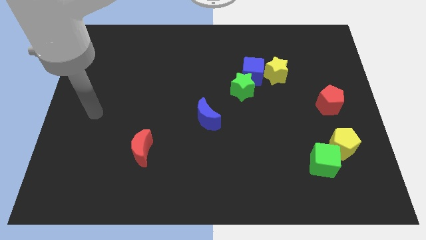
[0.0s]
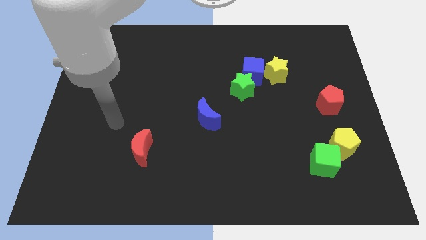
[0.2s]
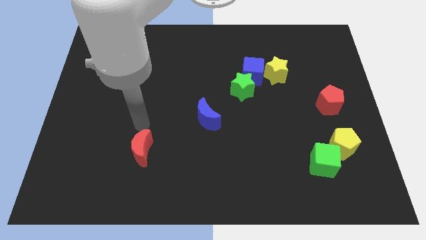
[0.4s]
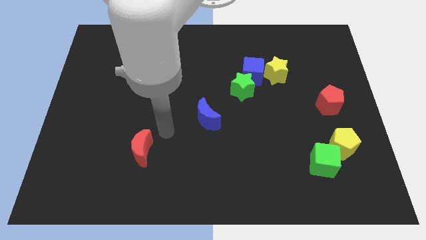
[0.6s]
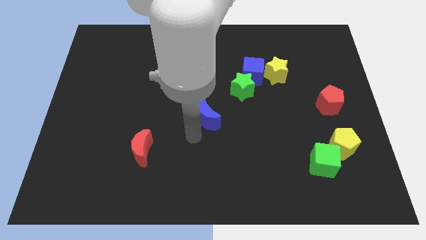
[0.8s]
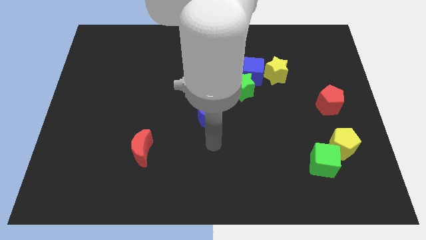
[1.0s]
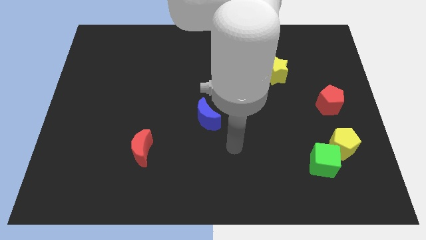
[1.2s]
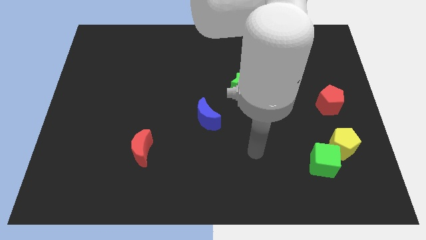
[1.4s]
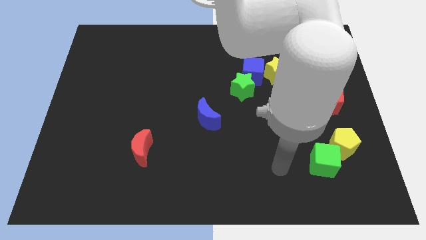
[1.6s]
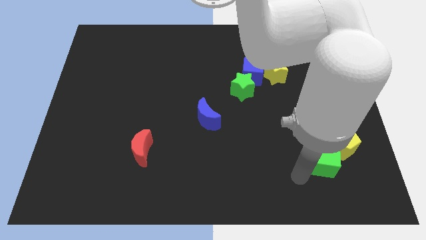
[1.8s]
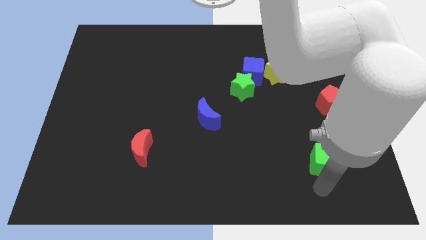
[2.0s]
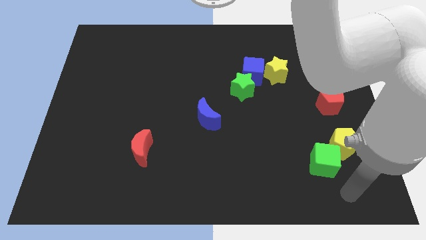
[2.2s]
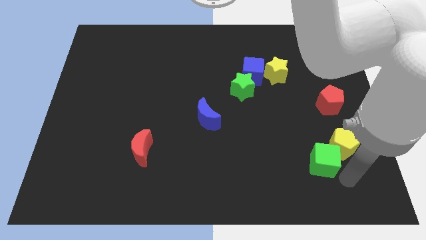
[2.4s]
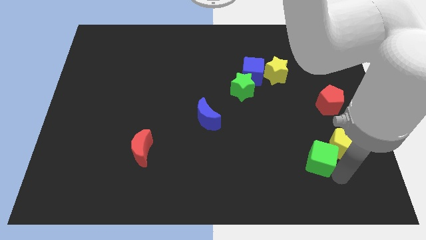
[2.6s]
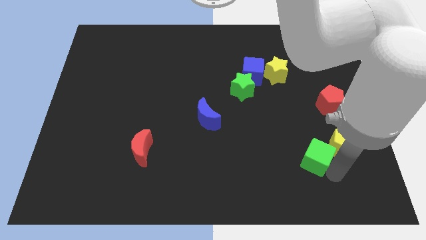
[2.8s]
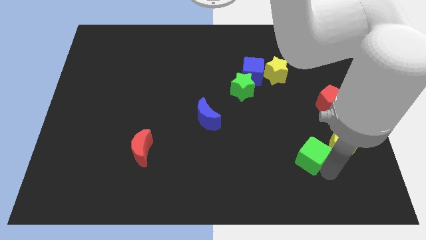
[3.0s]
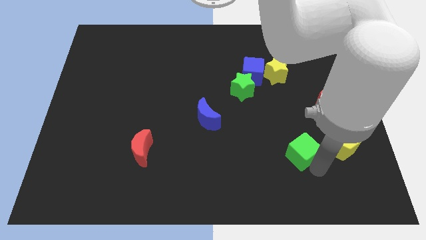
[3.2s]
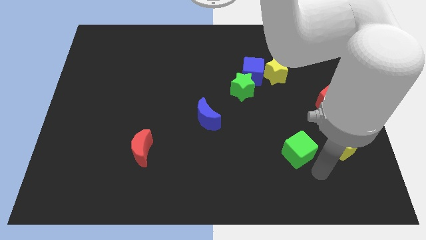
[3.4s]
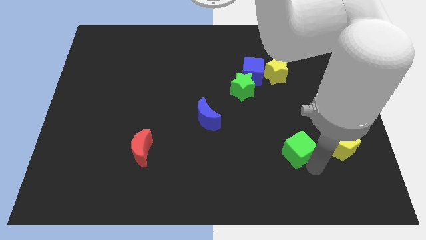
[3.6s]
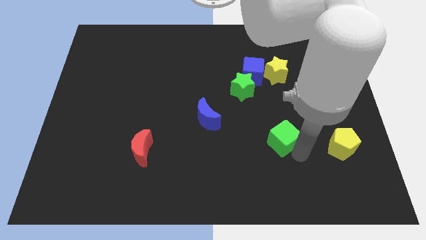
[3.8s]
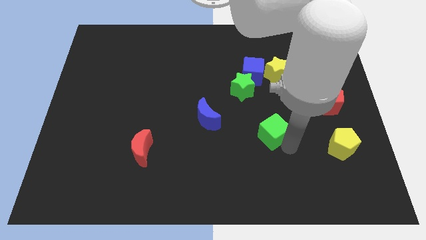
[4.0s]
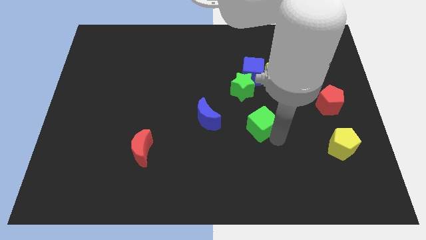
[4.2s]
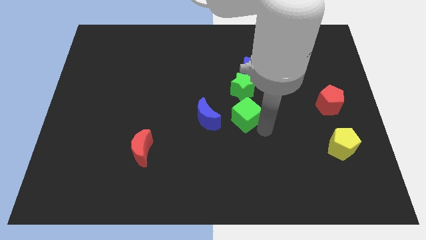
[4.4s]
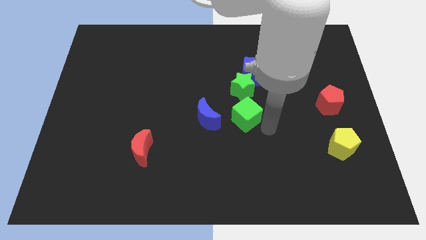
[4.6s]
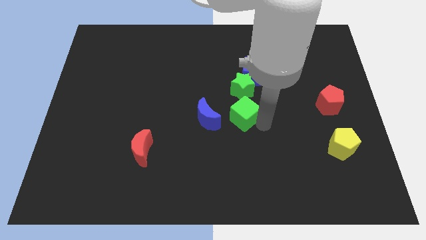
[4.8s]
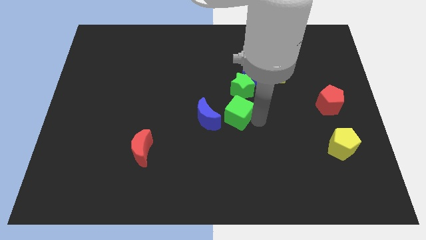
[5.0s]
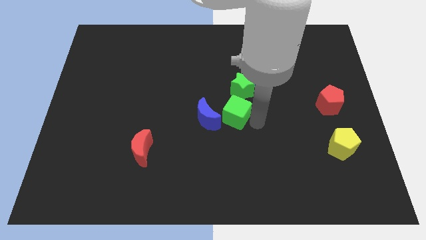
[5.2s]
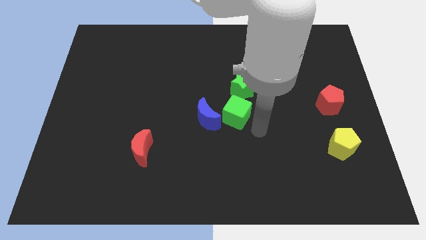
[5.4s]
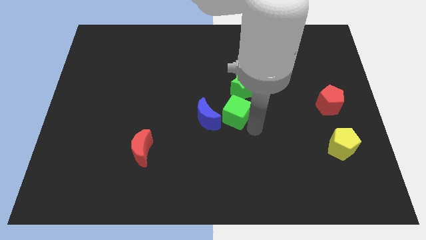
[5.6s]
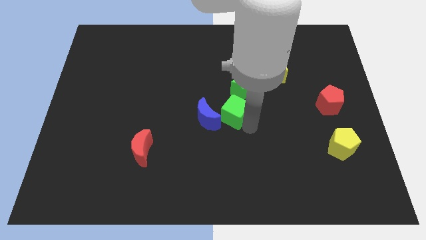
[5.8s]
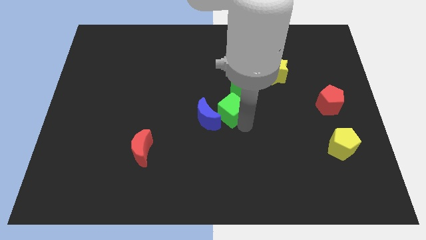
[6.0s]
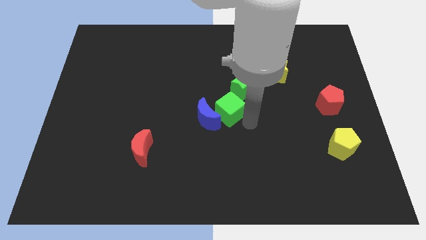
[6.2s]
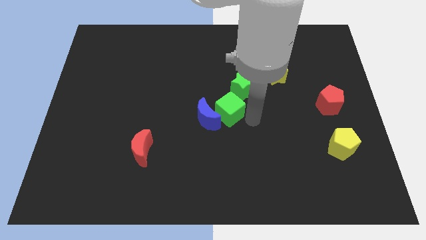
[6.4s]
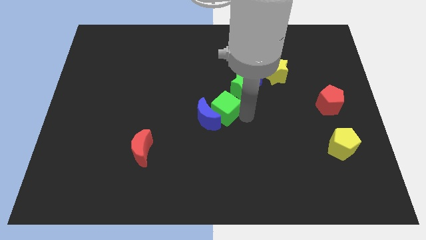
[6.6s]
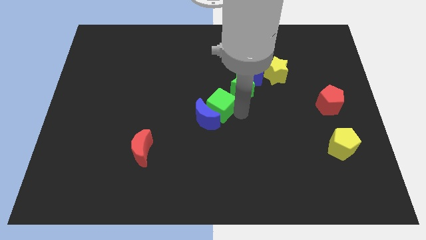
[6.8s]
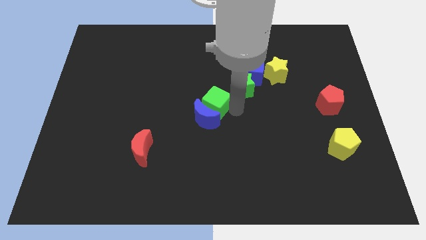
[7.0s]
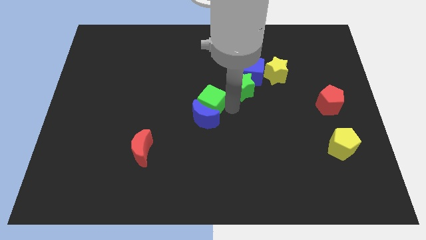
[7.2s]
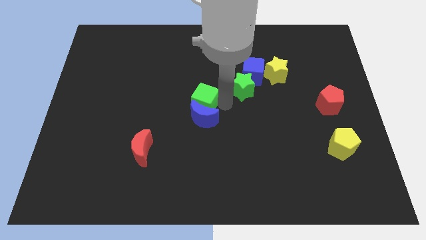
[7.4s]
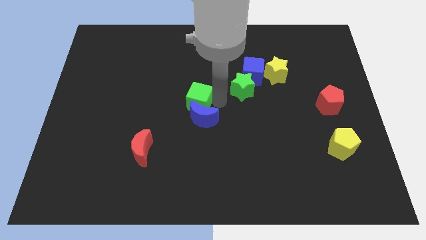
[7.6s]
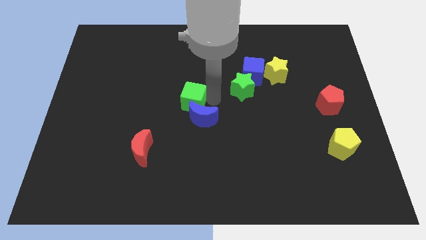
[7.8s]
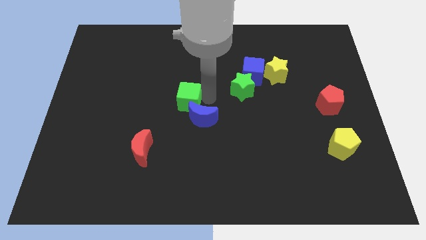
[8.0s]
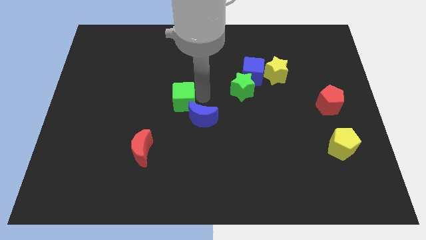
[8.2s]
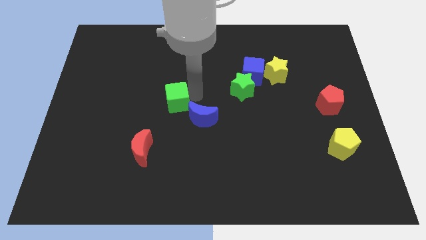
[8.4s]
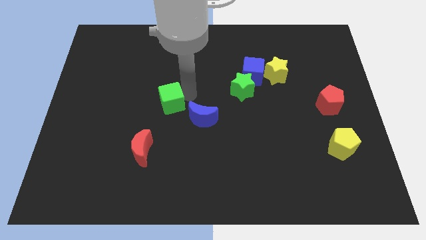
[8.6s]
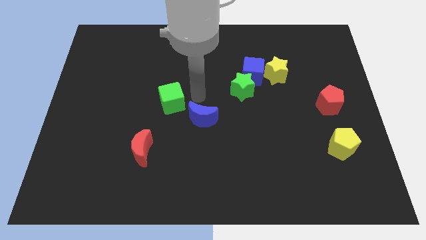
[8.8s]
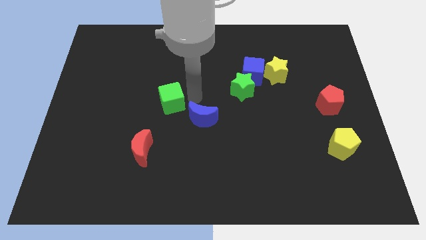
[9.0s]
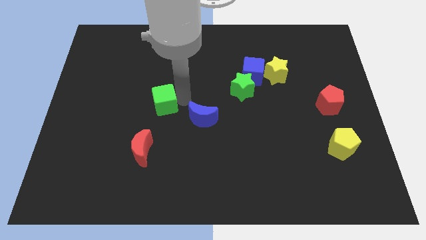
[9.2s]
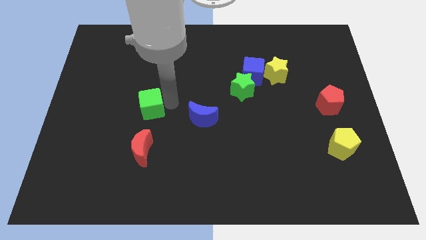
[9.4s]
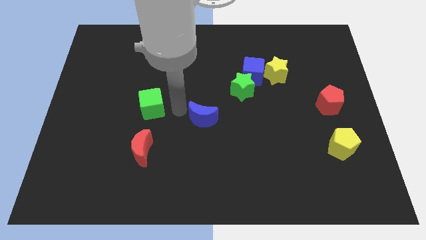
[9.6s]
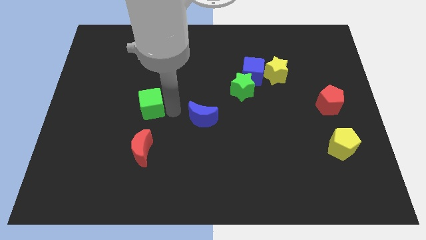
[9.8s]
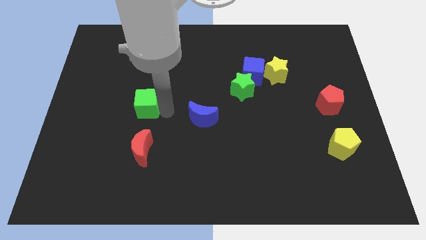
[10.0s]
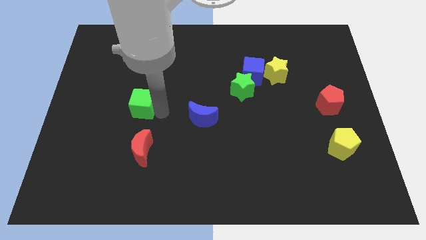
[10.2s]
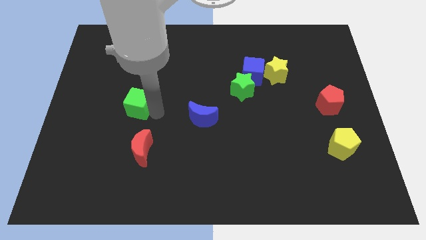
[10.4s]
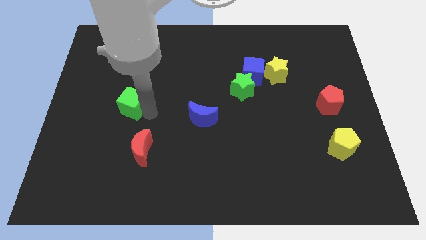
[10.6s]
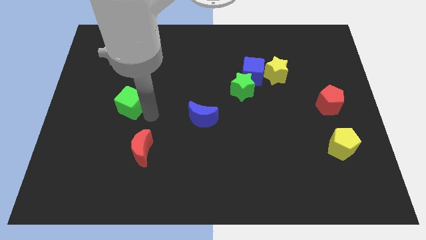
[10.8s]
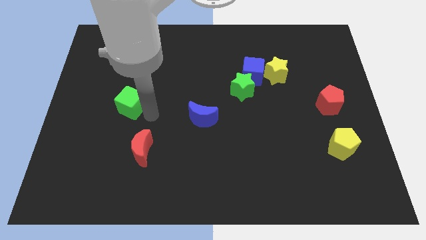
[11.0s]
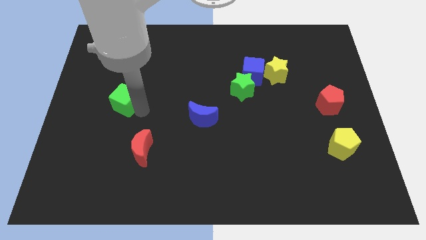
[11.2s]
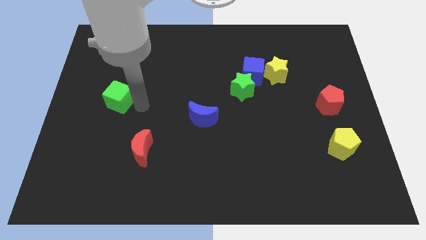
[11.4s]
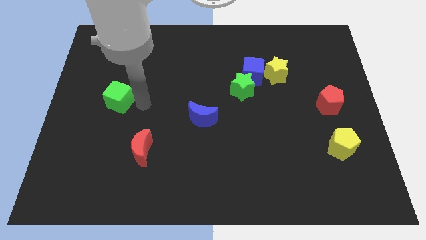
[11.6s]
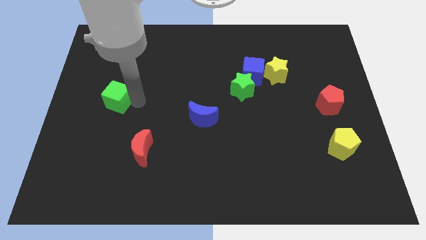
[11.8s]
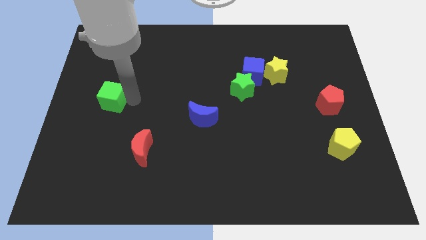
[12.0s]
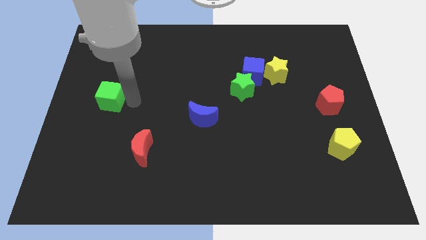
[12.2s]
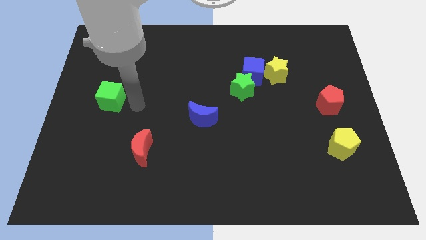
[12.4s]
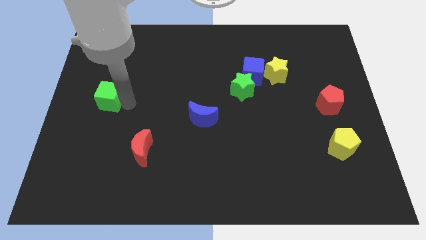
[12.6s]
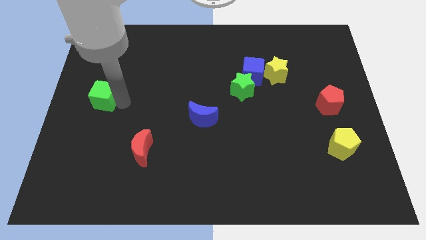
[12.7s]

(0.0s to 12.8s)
put the green cube to the left side of the board

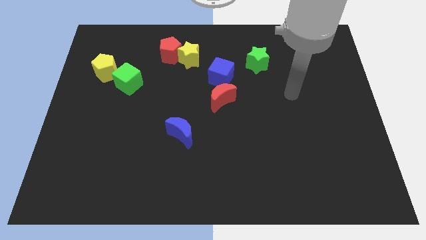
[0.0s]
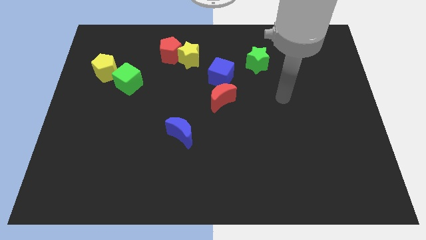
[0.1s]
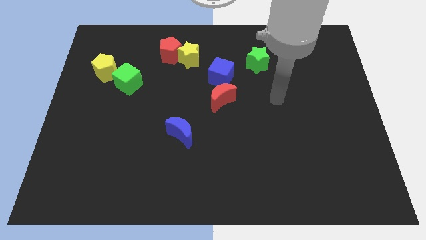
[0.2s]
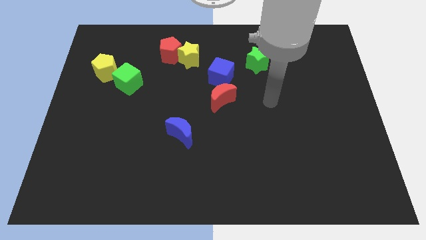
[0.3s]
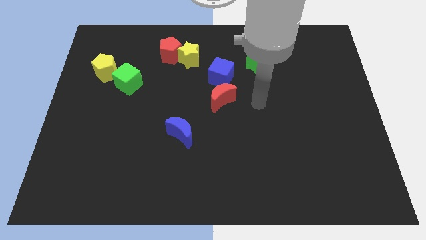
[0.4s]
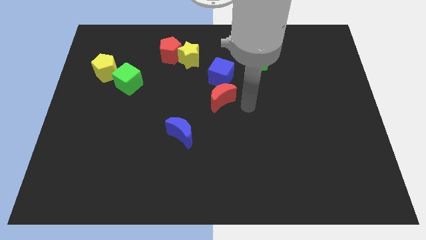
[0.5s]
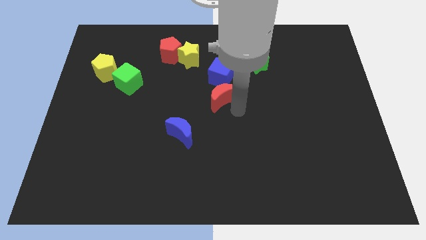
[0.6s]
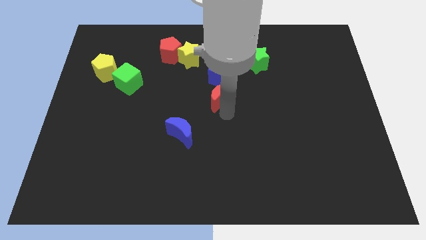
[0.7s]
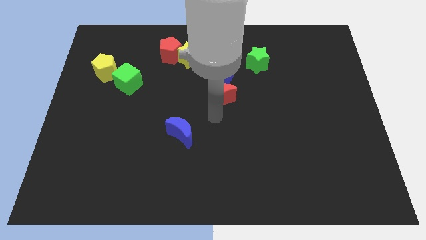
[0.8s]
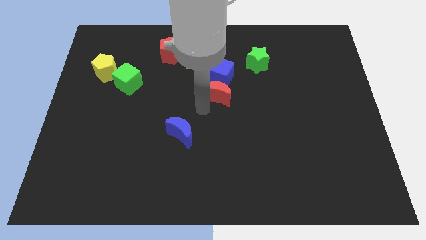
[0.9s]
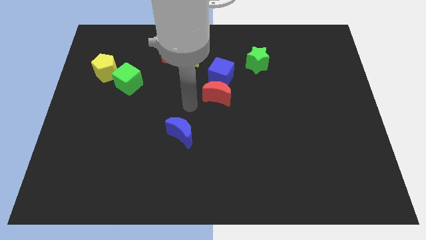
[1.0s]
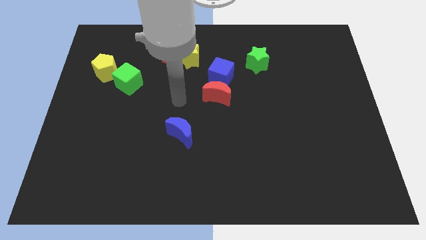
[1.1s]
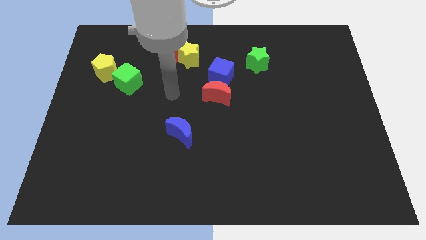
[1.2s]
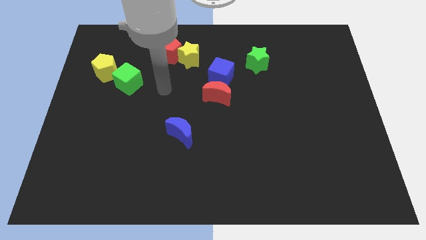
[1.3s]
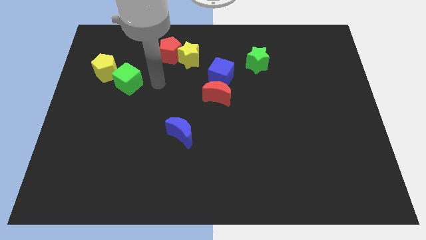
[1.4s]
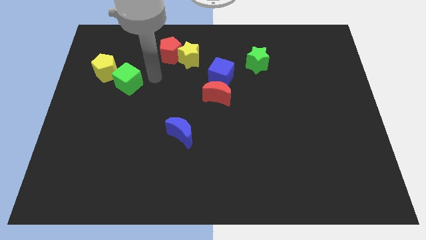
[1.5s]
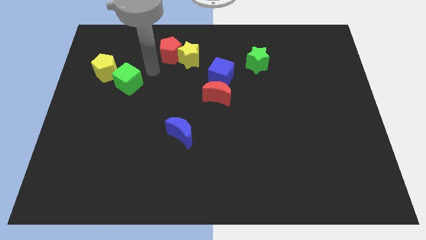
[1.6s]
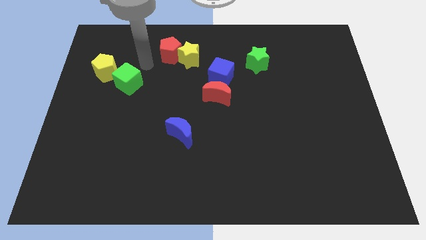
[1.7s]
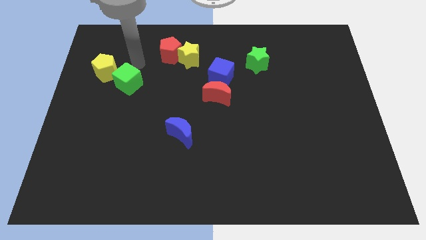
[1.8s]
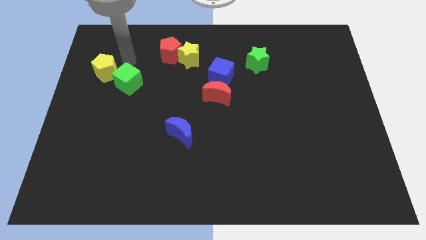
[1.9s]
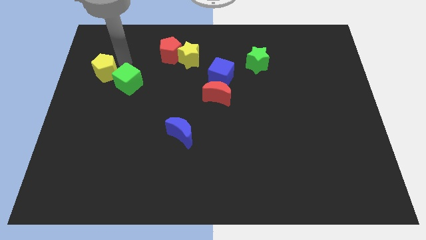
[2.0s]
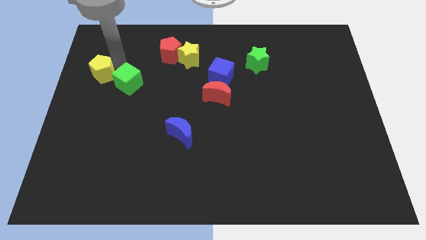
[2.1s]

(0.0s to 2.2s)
put the yellow pentagon to the left side
